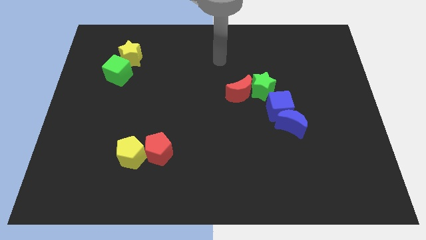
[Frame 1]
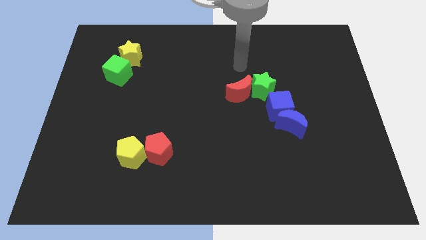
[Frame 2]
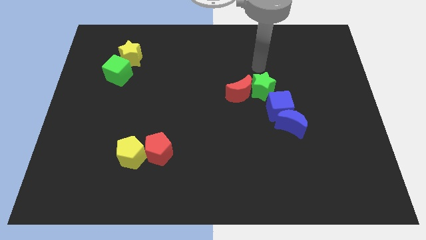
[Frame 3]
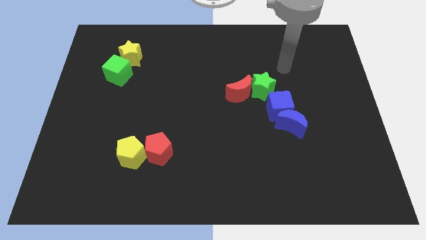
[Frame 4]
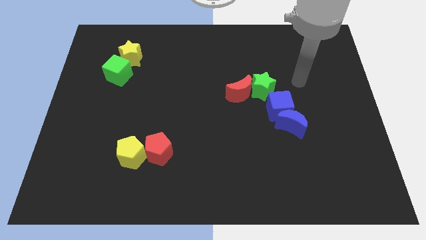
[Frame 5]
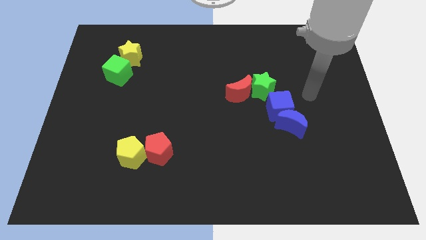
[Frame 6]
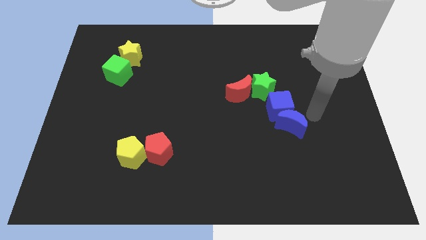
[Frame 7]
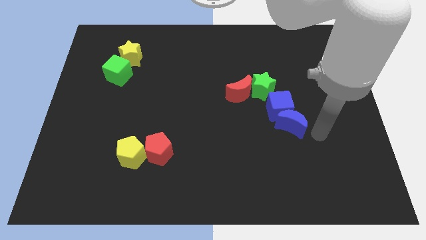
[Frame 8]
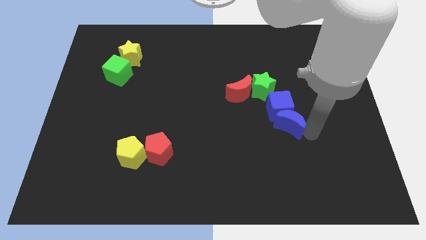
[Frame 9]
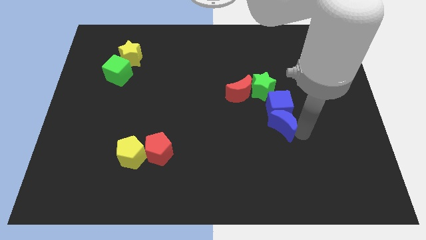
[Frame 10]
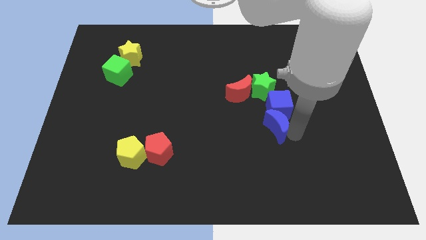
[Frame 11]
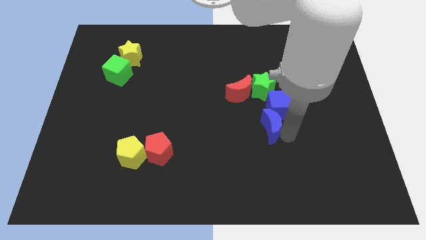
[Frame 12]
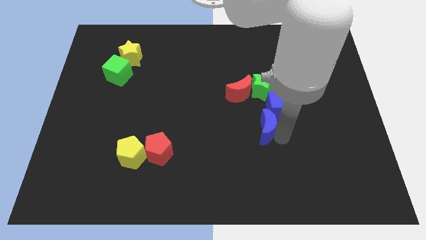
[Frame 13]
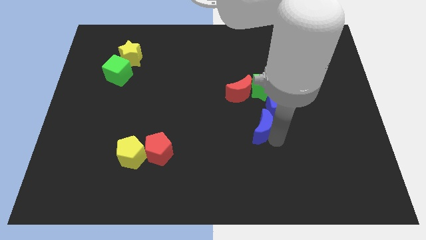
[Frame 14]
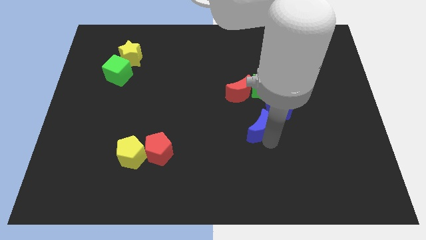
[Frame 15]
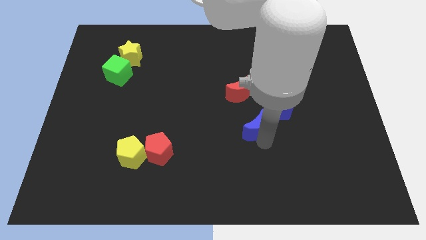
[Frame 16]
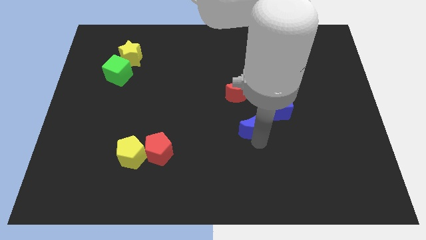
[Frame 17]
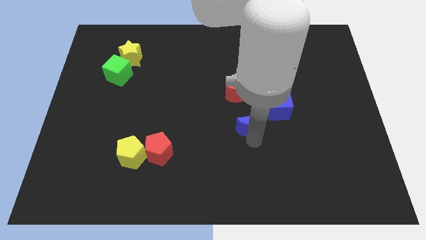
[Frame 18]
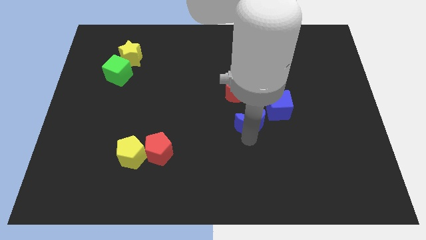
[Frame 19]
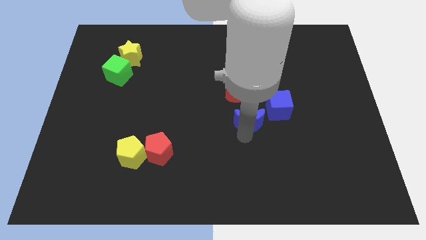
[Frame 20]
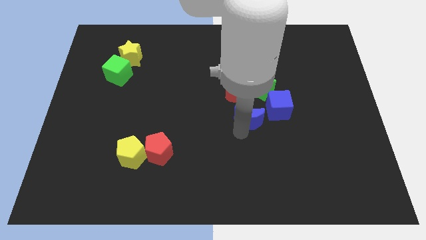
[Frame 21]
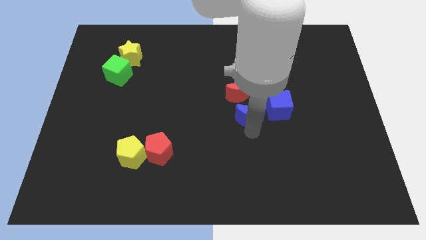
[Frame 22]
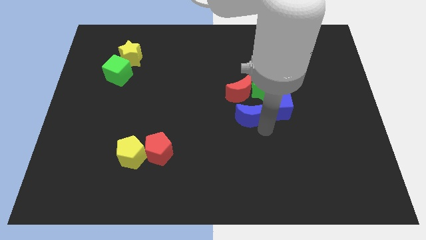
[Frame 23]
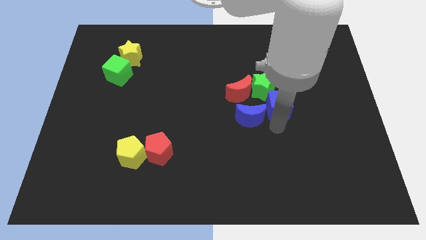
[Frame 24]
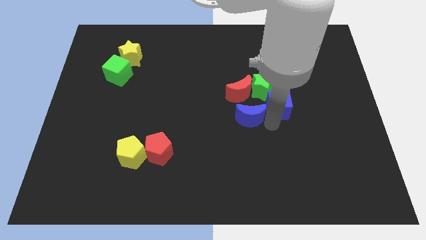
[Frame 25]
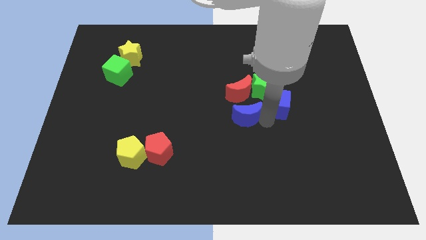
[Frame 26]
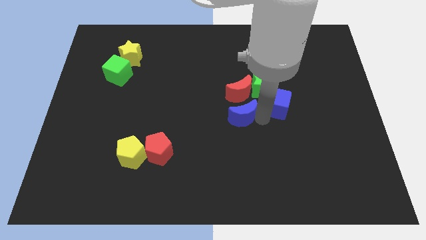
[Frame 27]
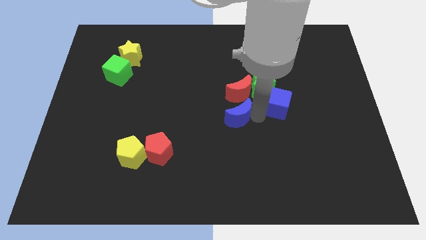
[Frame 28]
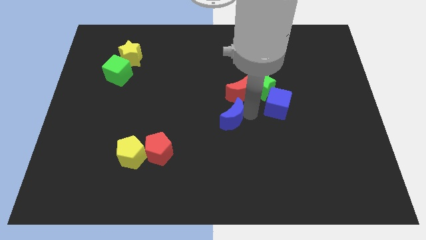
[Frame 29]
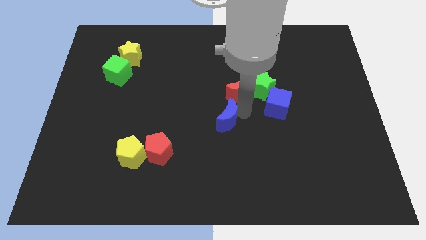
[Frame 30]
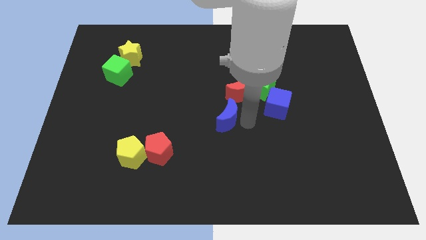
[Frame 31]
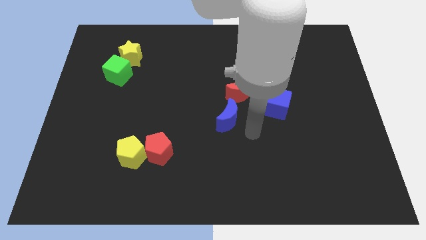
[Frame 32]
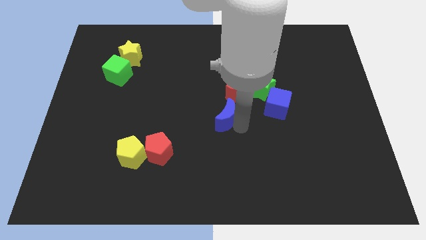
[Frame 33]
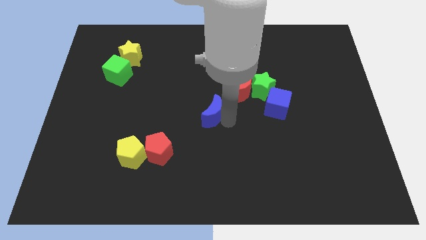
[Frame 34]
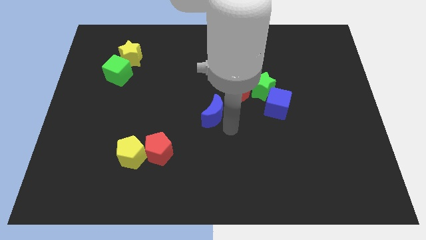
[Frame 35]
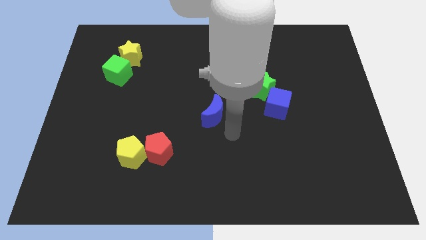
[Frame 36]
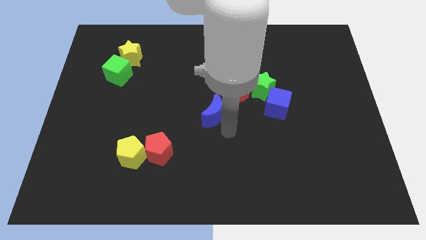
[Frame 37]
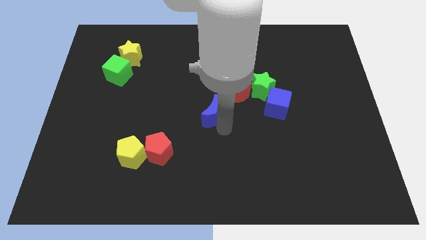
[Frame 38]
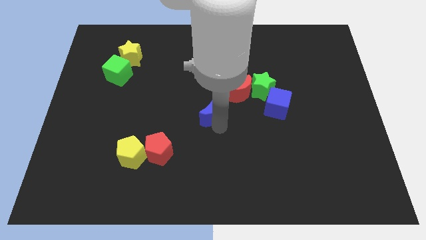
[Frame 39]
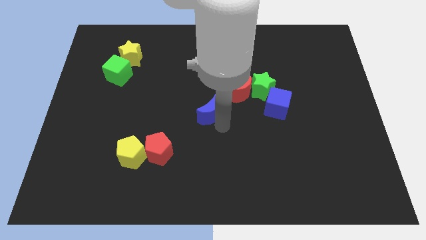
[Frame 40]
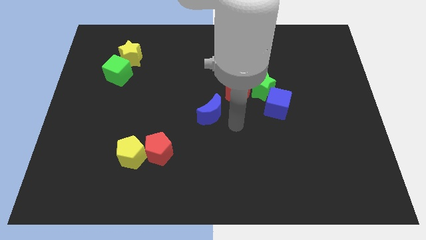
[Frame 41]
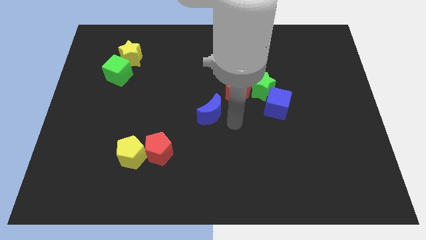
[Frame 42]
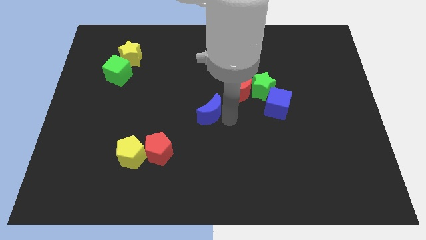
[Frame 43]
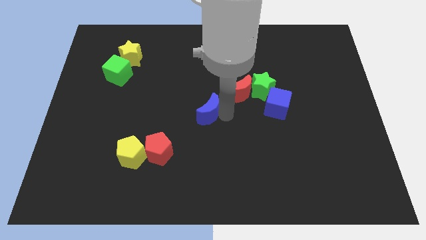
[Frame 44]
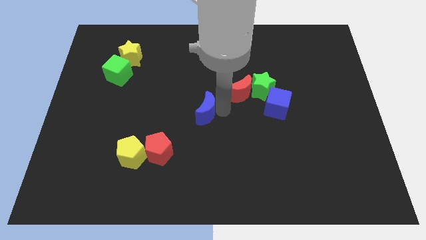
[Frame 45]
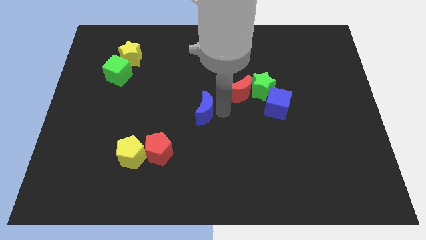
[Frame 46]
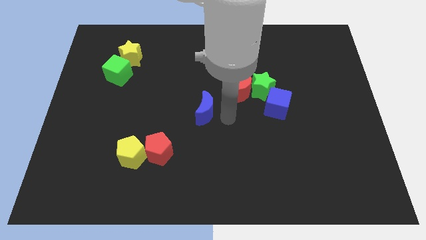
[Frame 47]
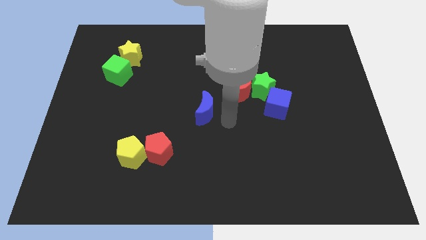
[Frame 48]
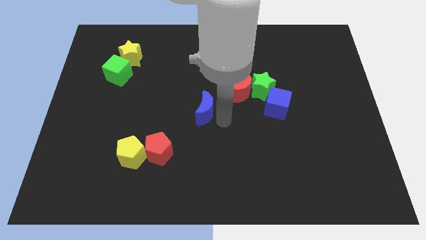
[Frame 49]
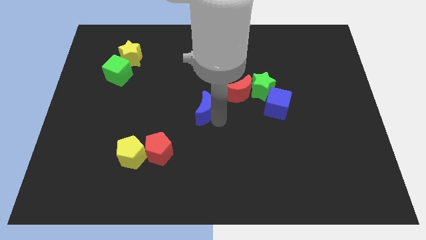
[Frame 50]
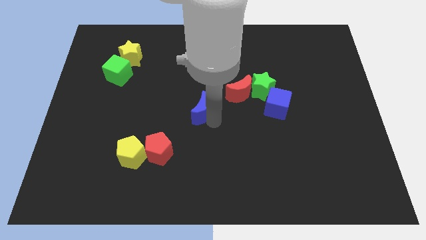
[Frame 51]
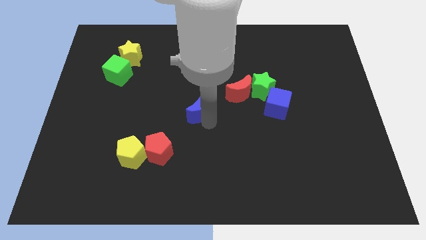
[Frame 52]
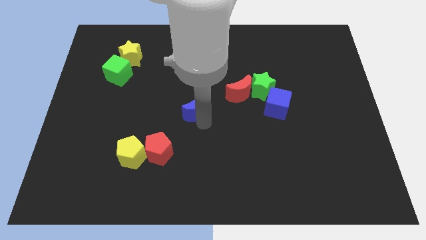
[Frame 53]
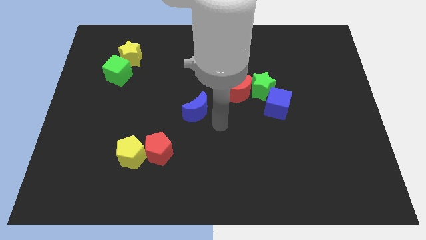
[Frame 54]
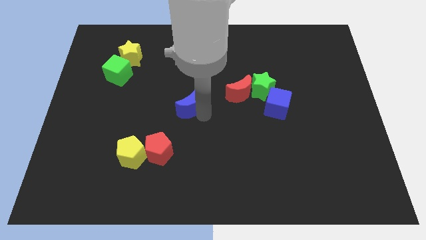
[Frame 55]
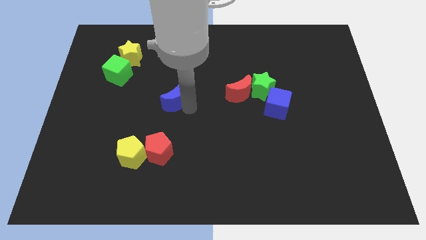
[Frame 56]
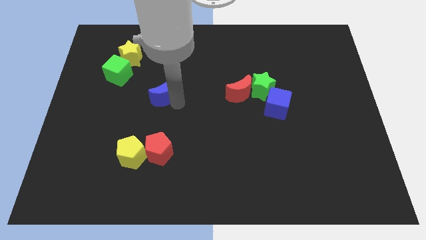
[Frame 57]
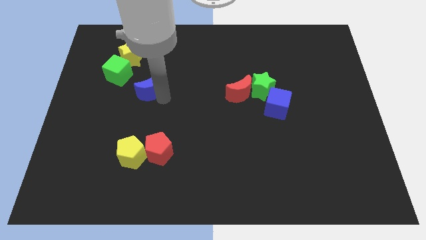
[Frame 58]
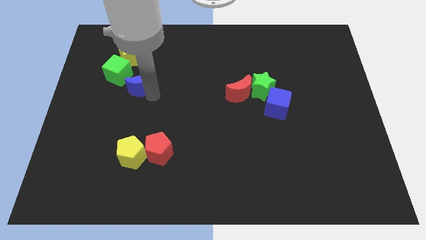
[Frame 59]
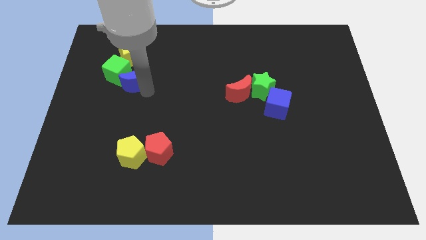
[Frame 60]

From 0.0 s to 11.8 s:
slide the blue moon towards the green cube

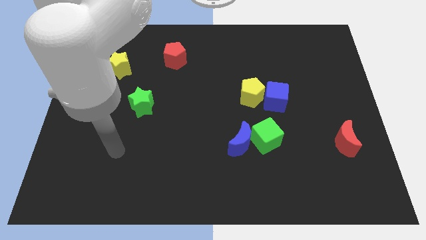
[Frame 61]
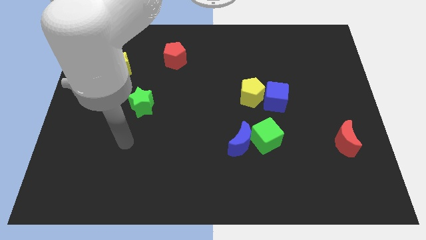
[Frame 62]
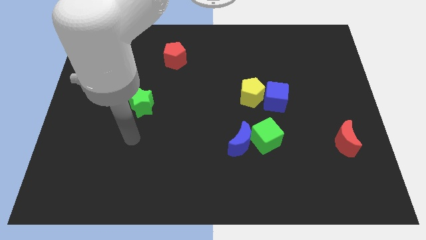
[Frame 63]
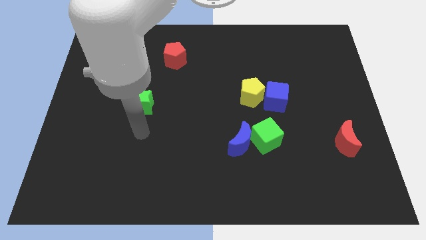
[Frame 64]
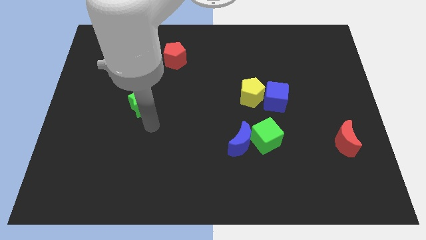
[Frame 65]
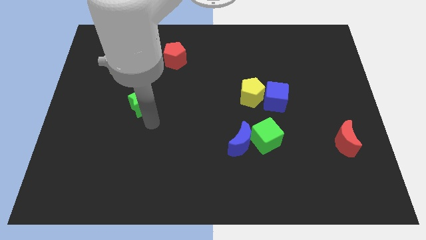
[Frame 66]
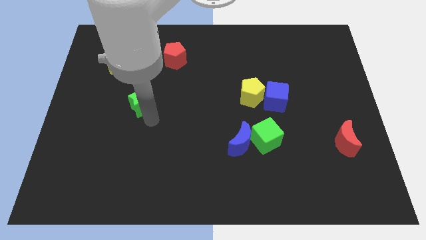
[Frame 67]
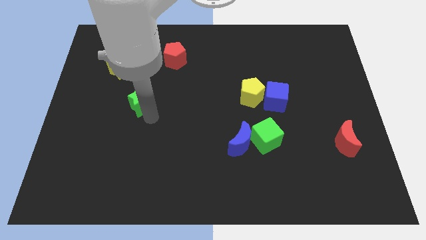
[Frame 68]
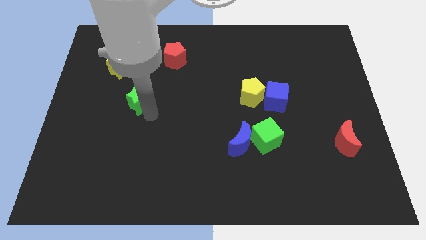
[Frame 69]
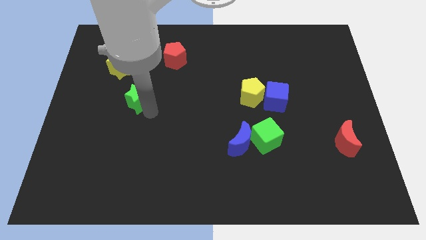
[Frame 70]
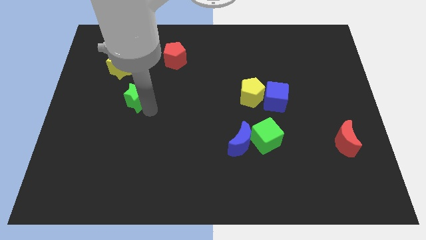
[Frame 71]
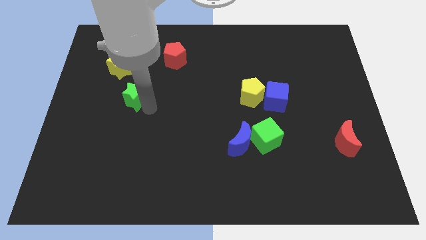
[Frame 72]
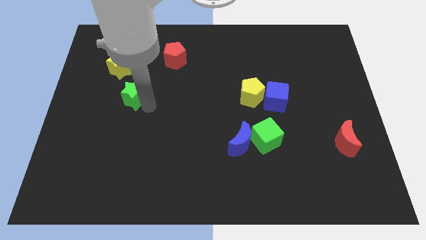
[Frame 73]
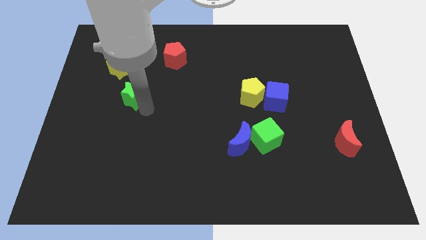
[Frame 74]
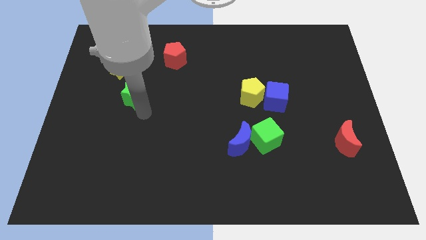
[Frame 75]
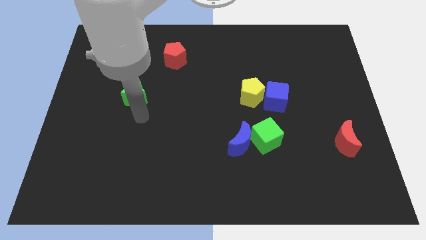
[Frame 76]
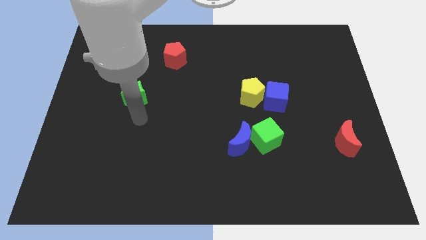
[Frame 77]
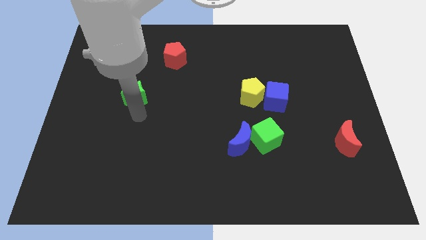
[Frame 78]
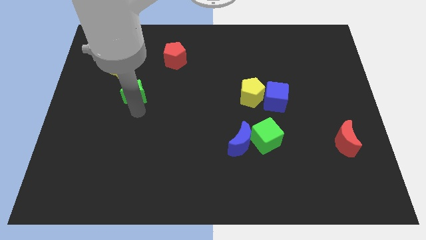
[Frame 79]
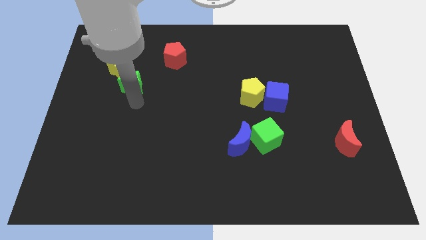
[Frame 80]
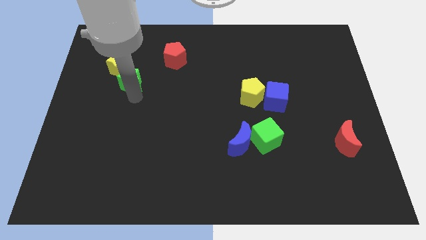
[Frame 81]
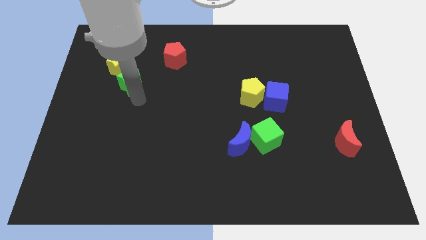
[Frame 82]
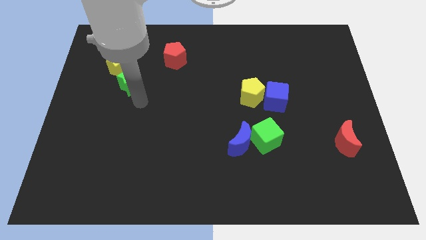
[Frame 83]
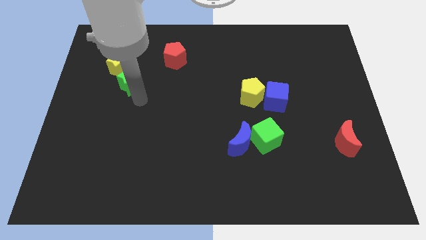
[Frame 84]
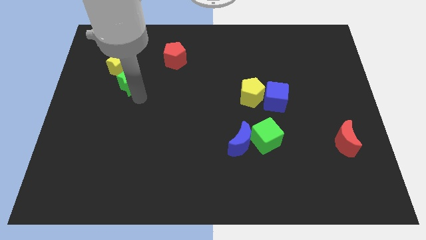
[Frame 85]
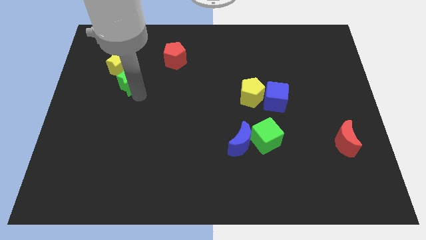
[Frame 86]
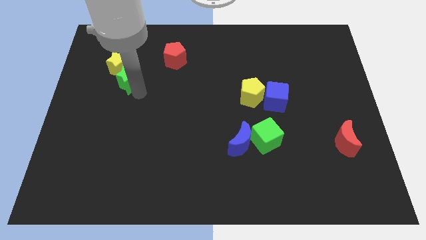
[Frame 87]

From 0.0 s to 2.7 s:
move the green star next to the yellow star
